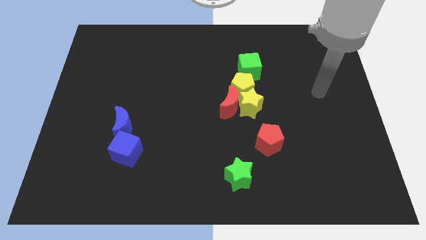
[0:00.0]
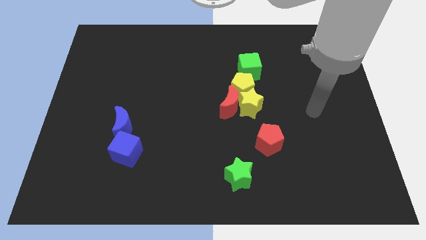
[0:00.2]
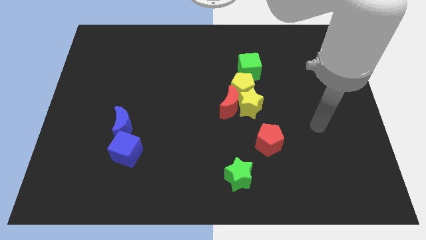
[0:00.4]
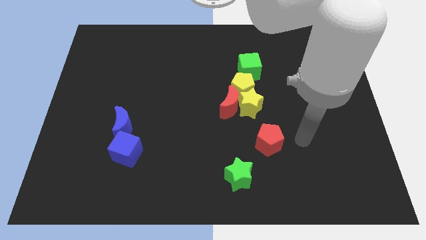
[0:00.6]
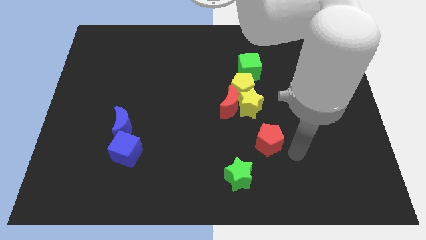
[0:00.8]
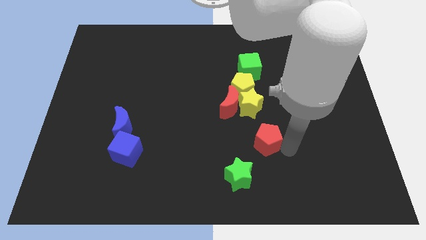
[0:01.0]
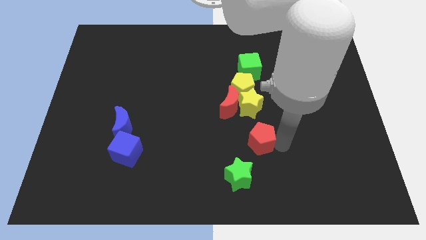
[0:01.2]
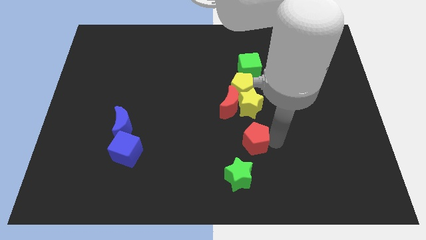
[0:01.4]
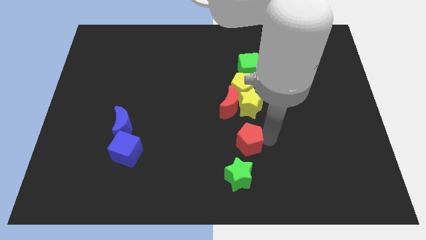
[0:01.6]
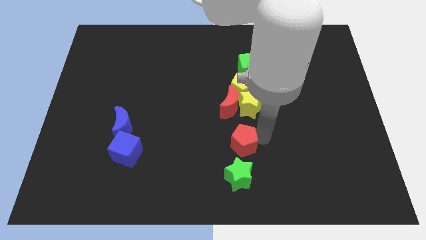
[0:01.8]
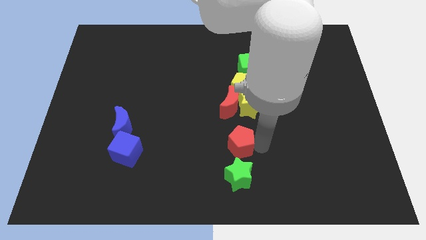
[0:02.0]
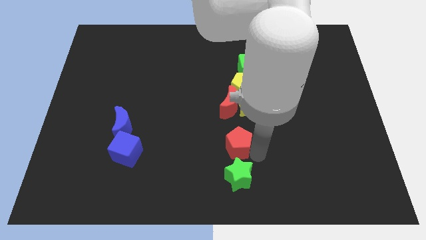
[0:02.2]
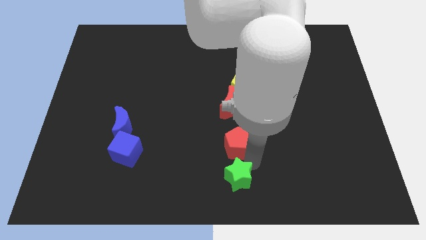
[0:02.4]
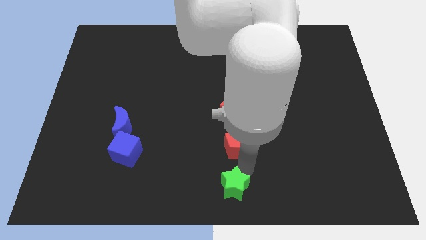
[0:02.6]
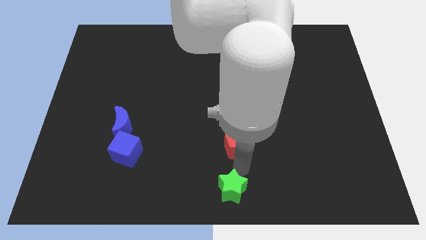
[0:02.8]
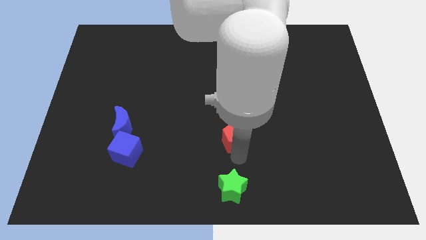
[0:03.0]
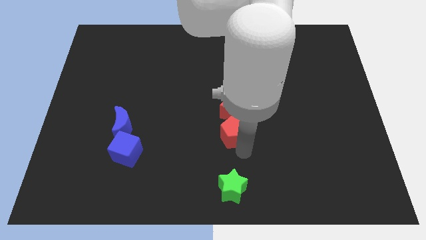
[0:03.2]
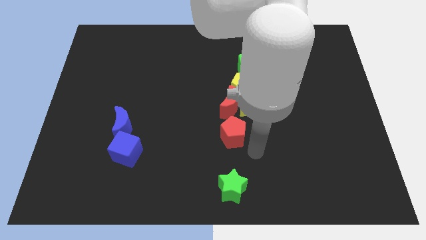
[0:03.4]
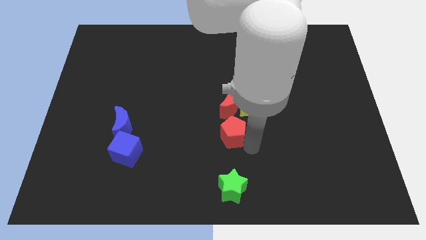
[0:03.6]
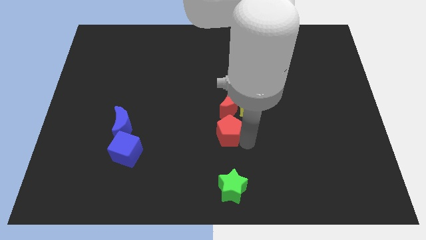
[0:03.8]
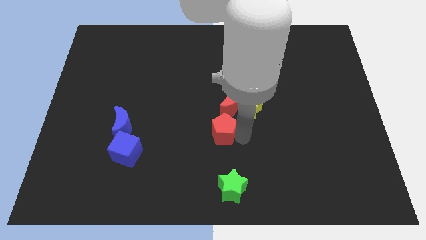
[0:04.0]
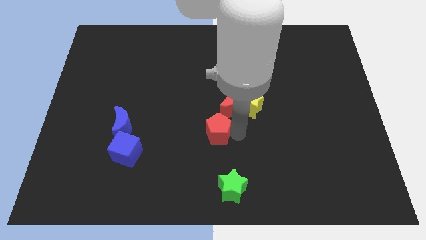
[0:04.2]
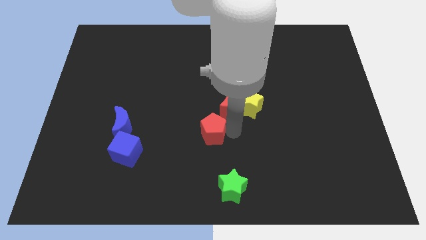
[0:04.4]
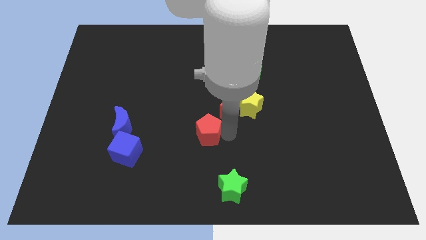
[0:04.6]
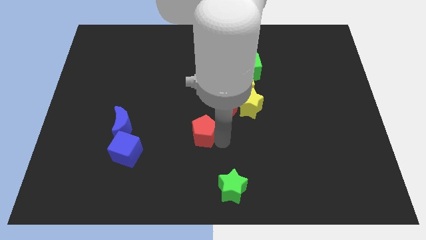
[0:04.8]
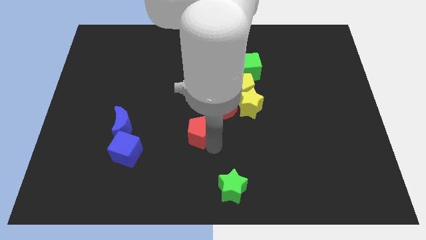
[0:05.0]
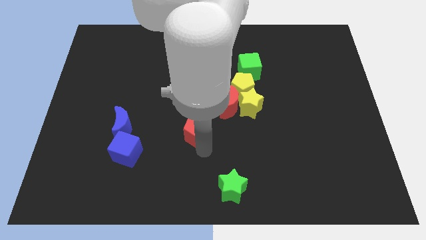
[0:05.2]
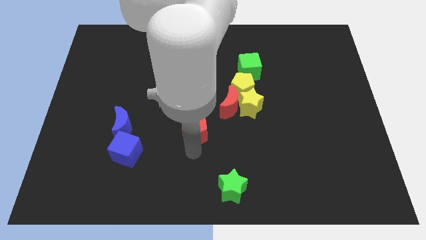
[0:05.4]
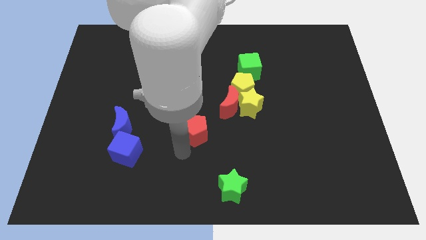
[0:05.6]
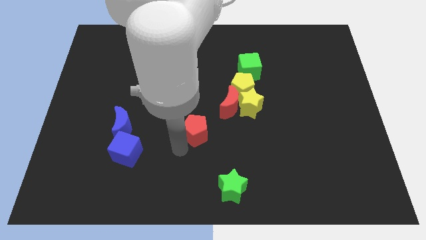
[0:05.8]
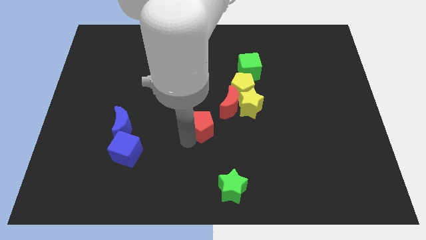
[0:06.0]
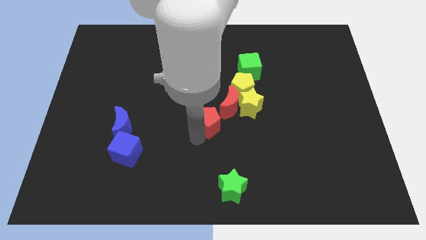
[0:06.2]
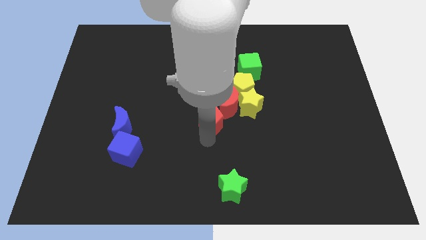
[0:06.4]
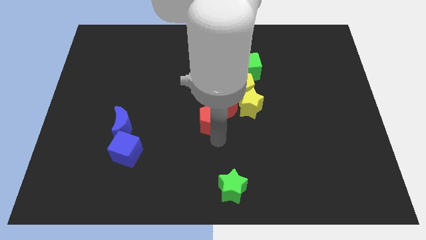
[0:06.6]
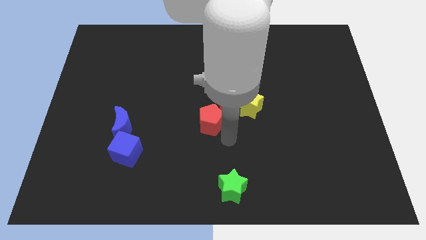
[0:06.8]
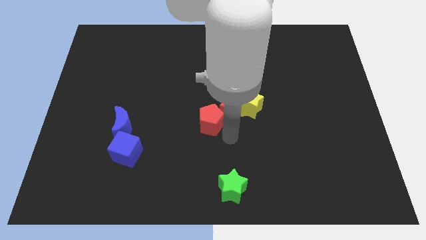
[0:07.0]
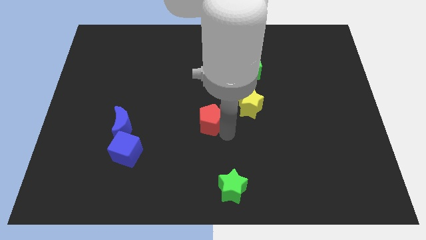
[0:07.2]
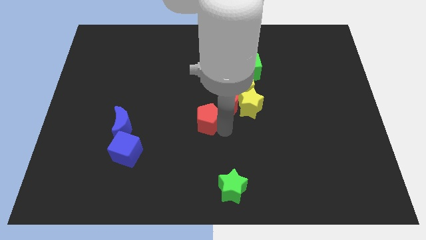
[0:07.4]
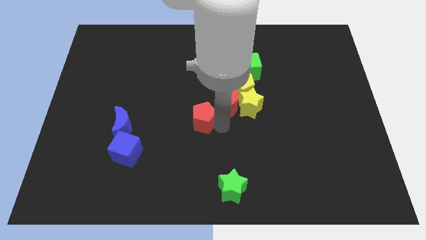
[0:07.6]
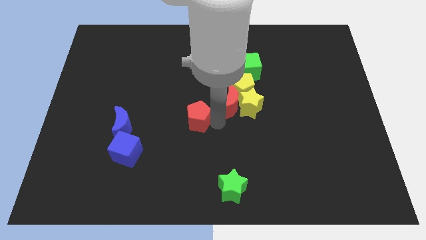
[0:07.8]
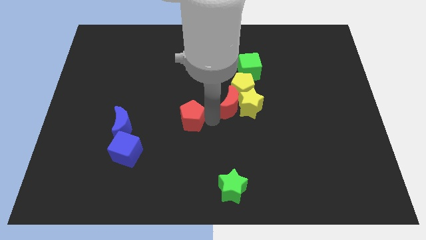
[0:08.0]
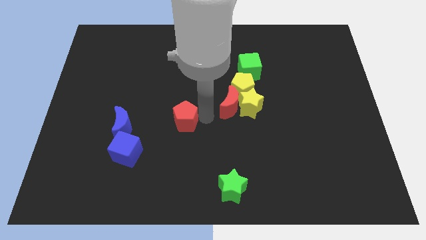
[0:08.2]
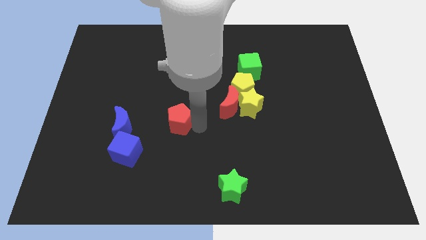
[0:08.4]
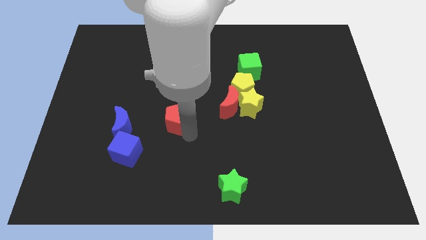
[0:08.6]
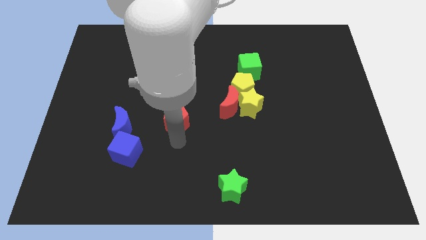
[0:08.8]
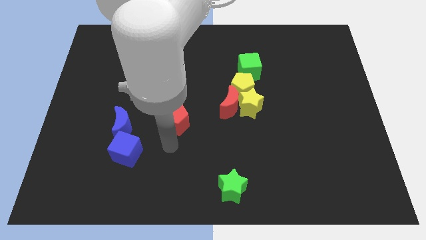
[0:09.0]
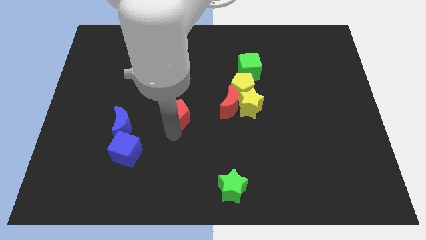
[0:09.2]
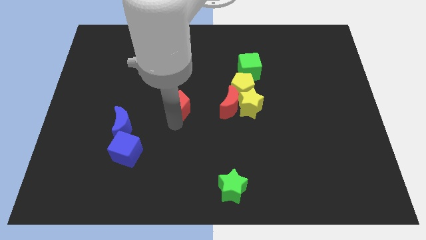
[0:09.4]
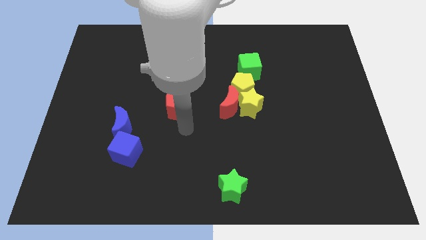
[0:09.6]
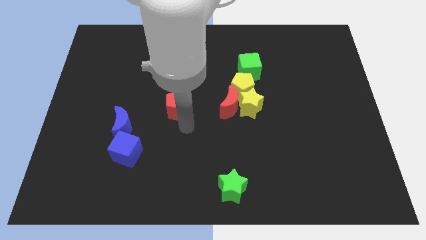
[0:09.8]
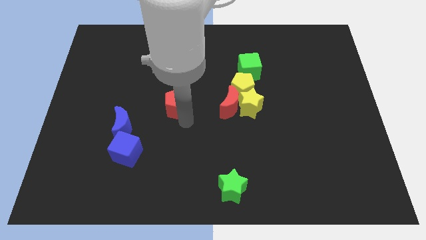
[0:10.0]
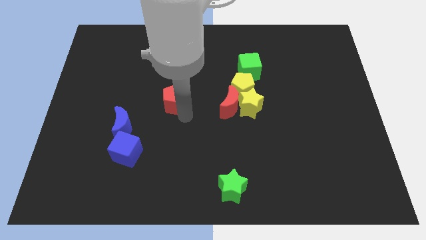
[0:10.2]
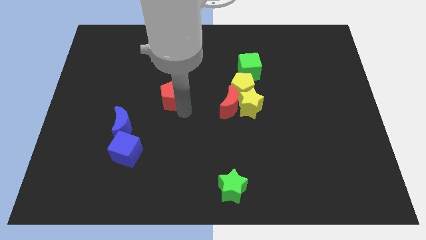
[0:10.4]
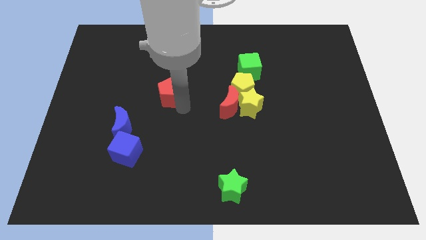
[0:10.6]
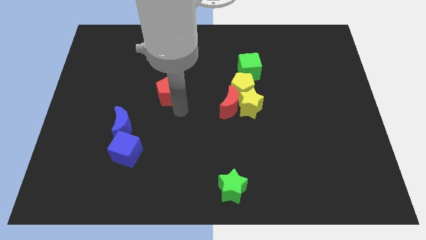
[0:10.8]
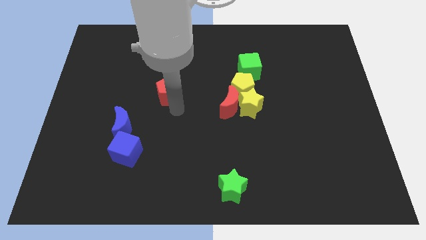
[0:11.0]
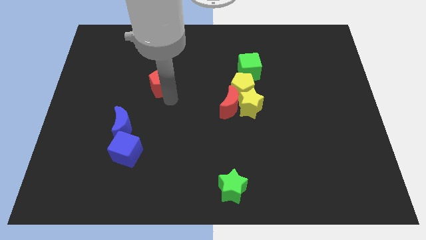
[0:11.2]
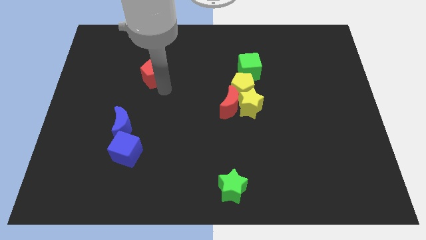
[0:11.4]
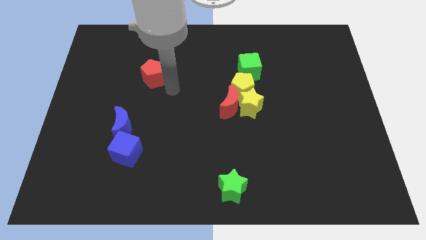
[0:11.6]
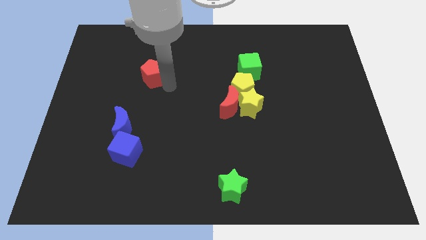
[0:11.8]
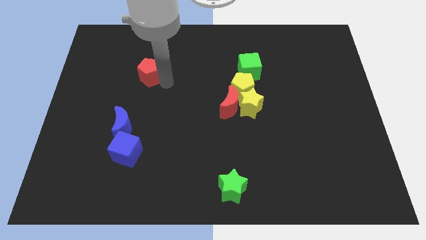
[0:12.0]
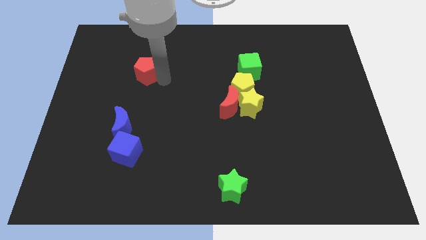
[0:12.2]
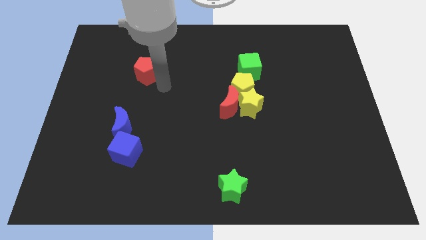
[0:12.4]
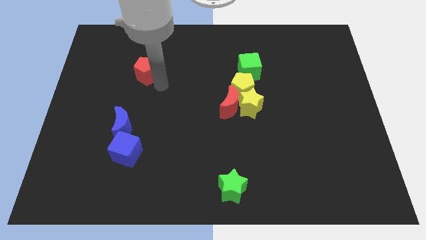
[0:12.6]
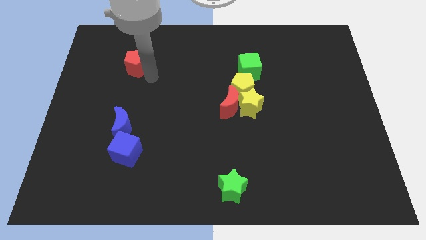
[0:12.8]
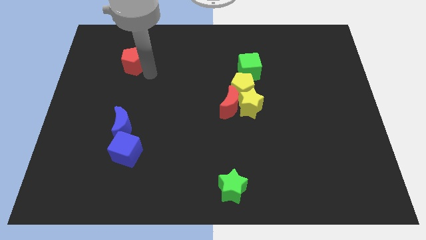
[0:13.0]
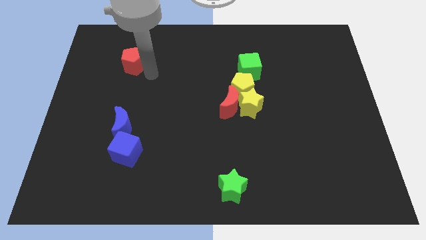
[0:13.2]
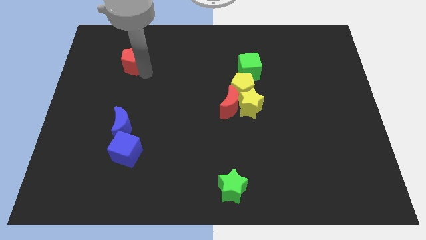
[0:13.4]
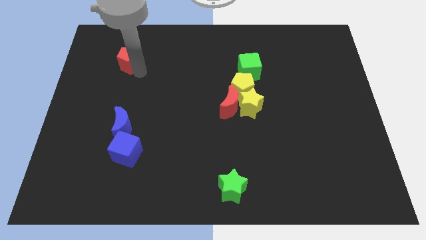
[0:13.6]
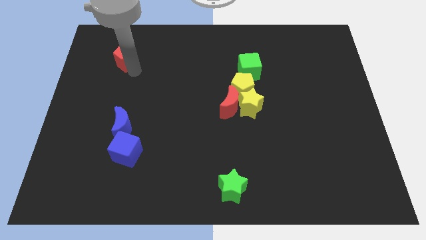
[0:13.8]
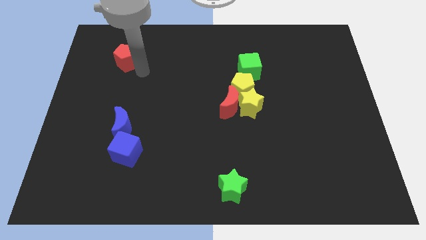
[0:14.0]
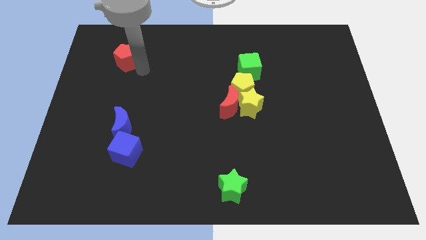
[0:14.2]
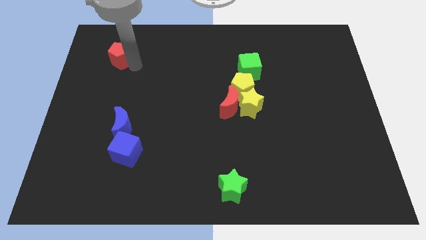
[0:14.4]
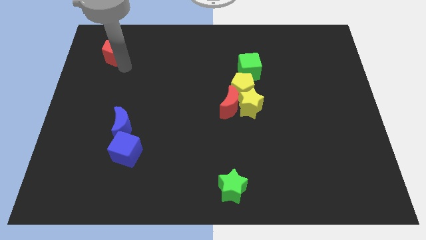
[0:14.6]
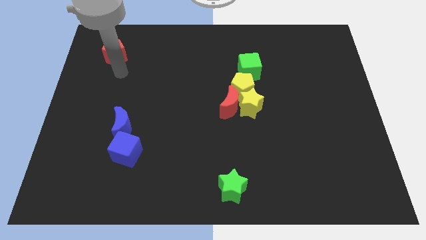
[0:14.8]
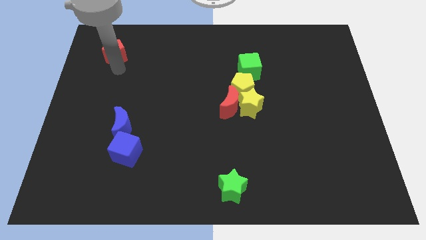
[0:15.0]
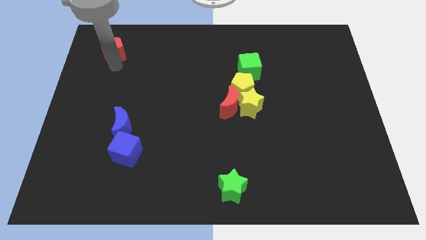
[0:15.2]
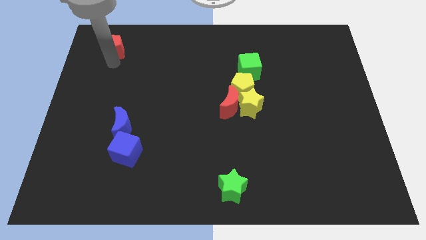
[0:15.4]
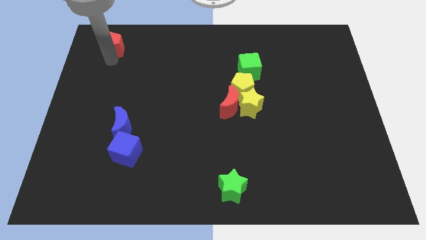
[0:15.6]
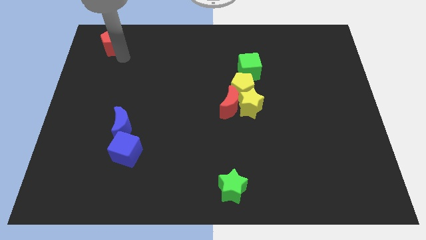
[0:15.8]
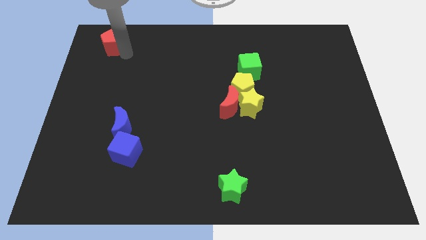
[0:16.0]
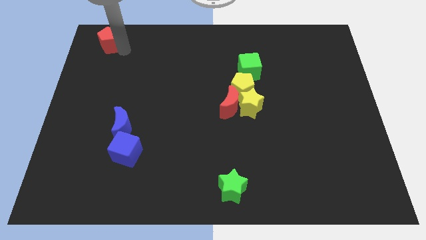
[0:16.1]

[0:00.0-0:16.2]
push the red pentagon to the top left corner
